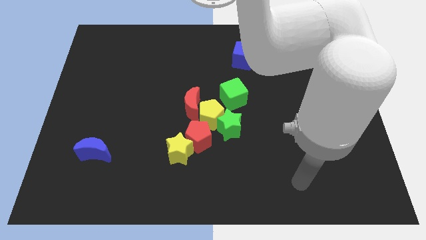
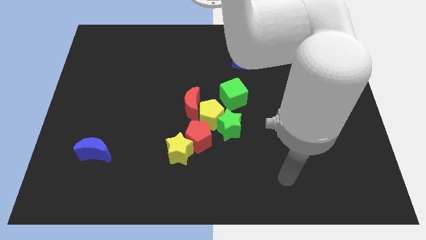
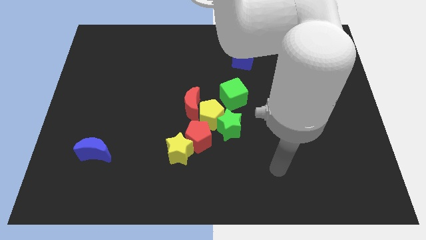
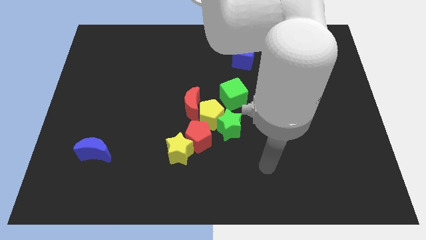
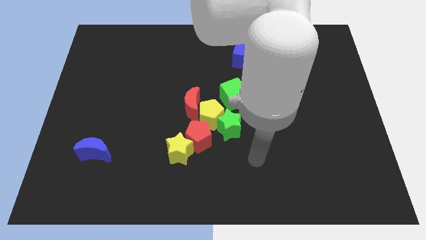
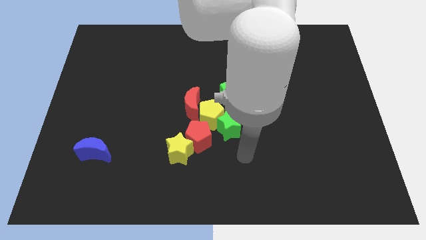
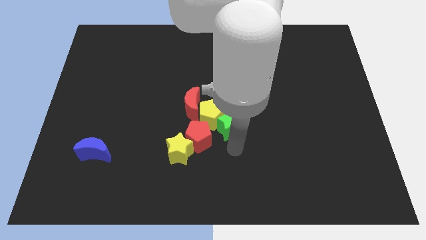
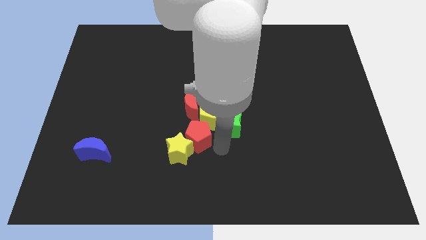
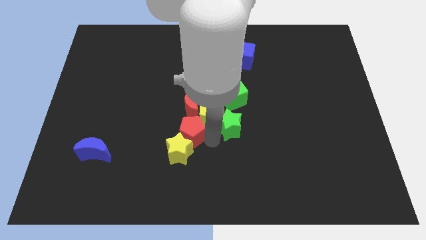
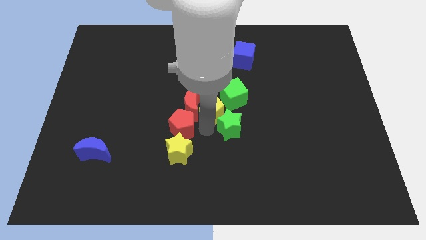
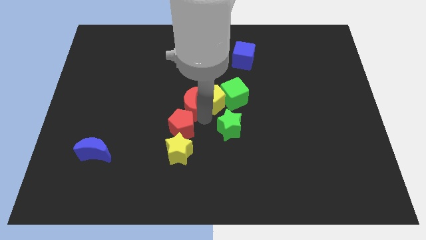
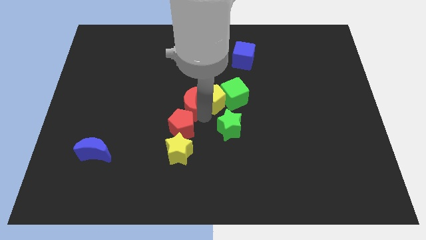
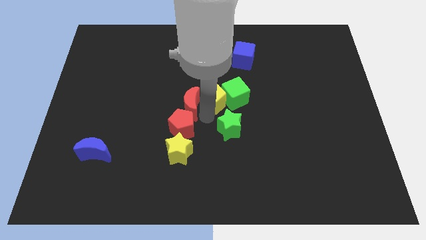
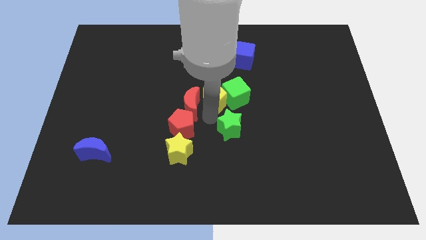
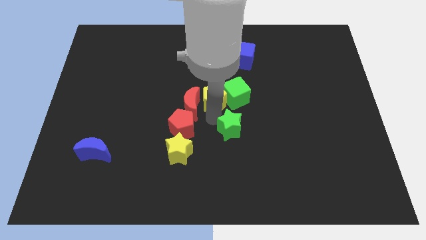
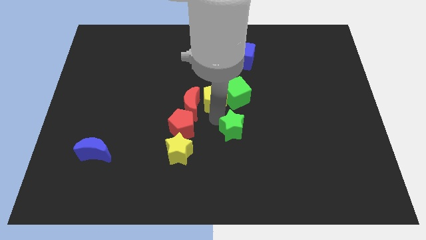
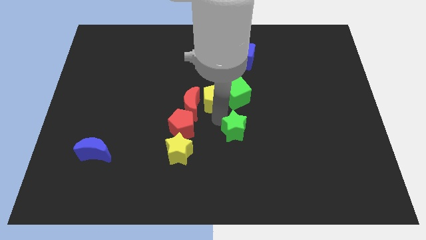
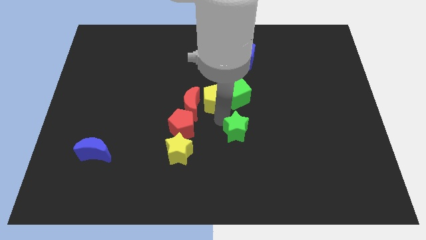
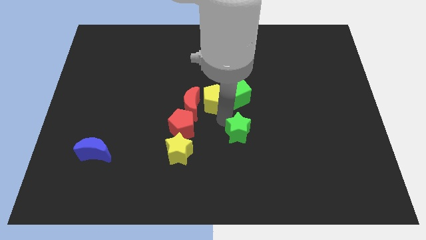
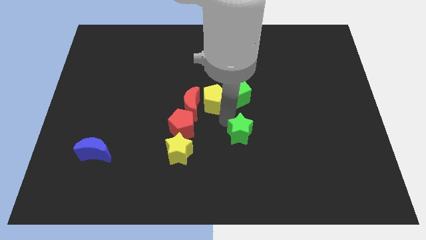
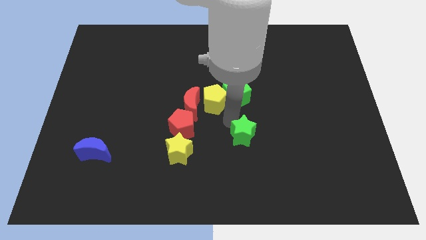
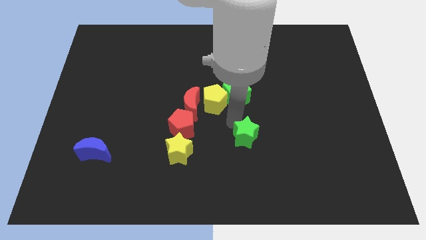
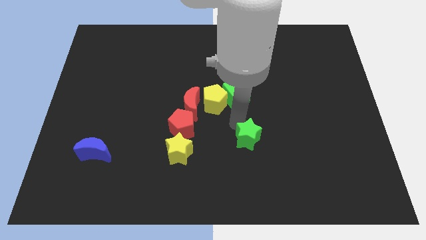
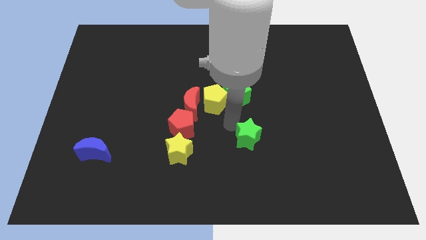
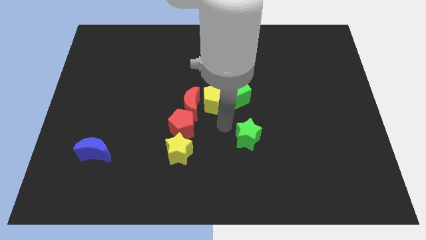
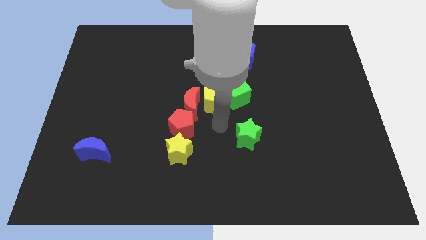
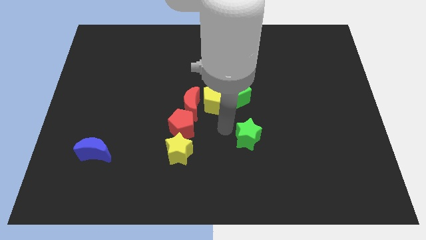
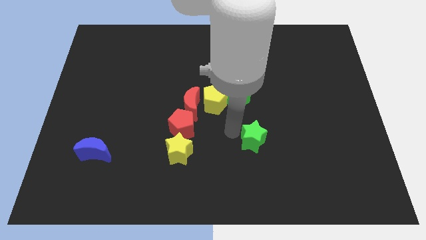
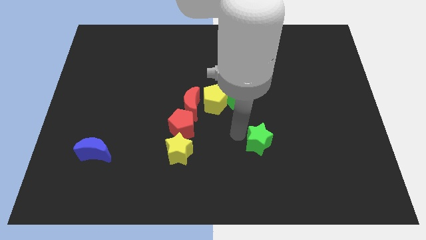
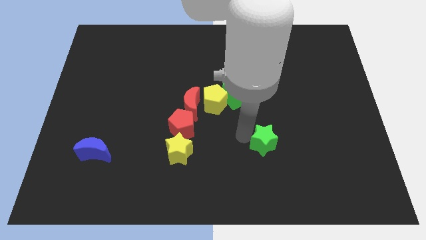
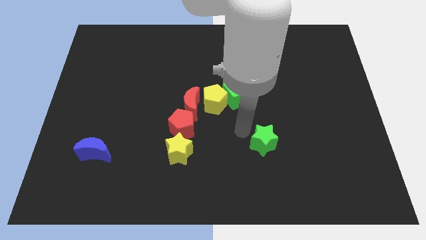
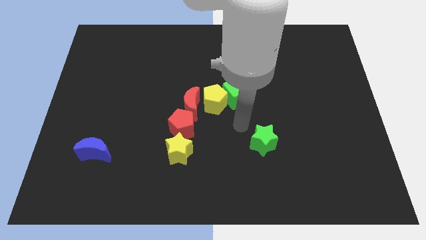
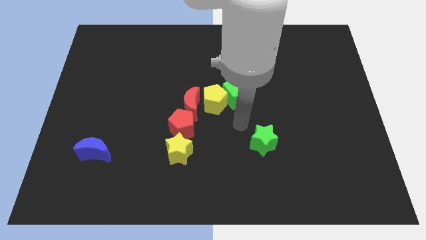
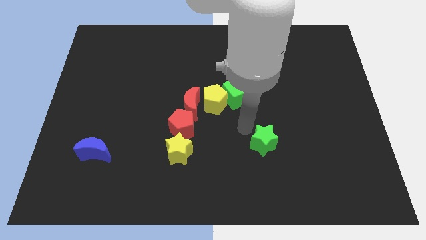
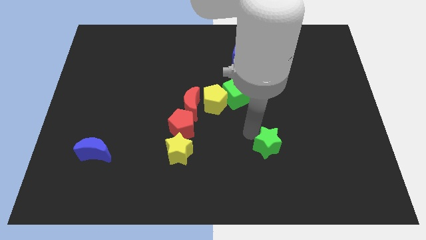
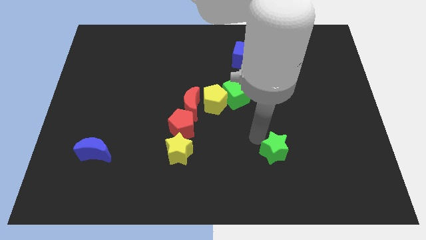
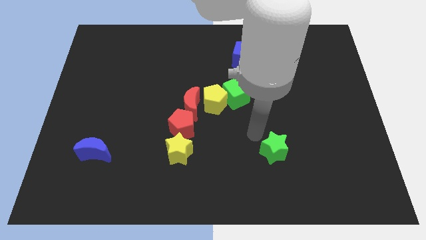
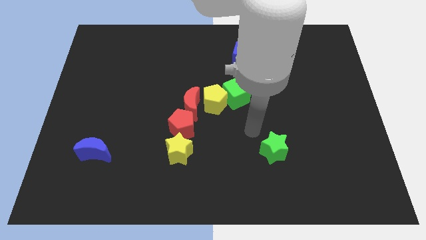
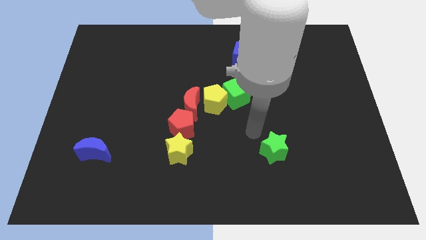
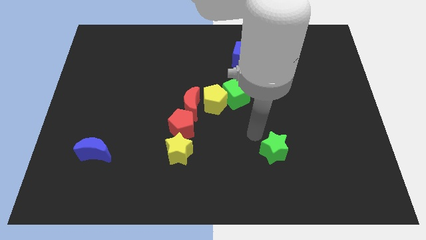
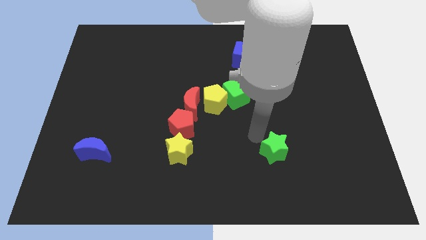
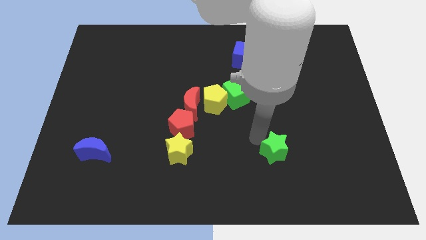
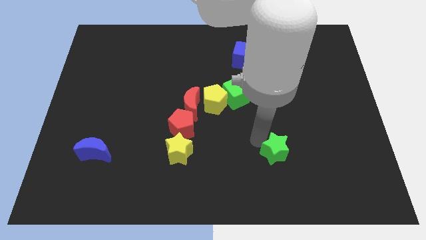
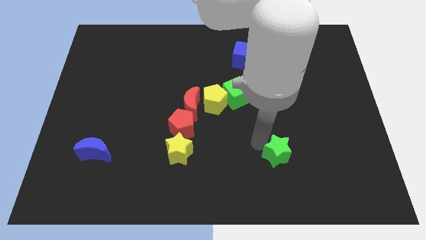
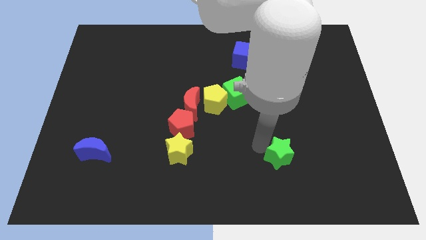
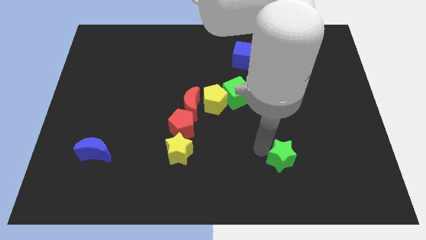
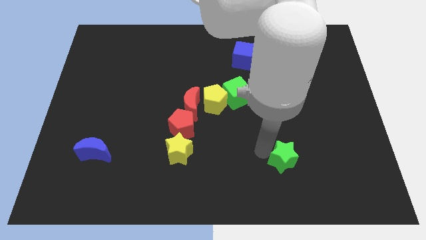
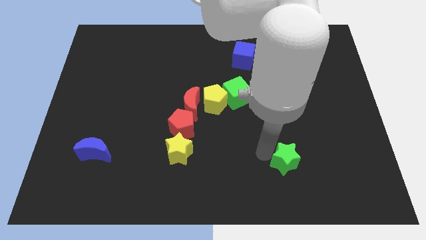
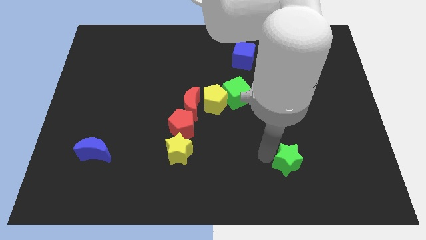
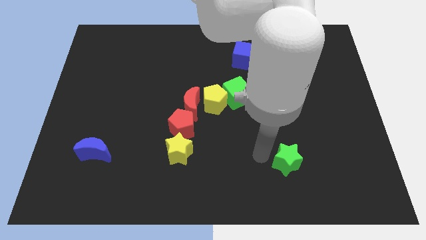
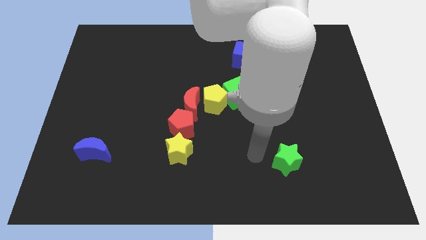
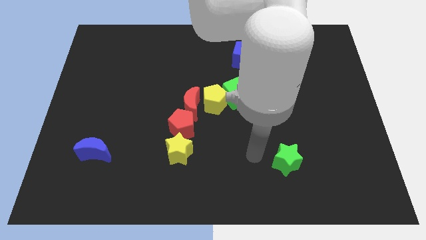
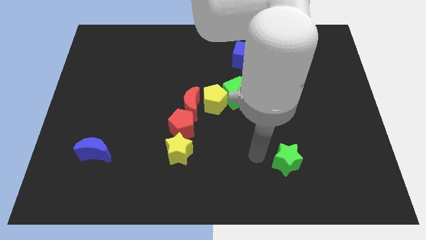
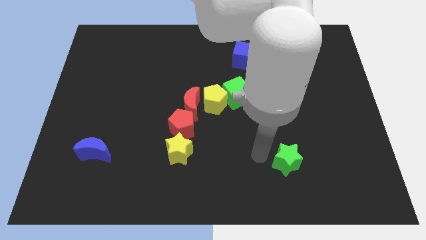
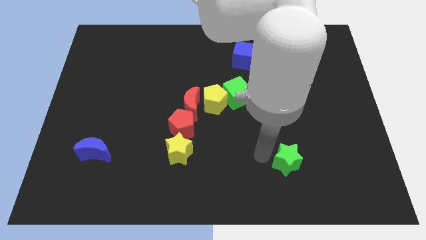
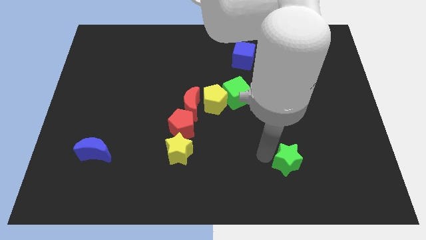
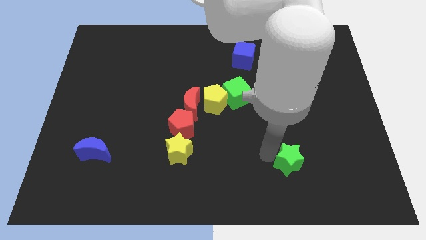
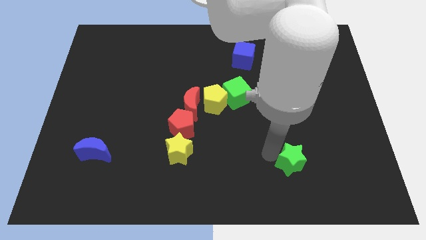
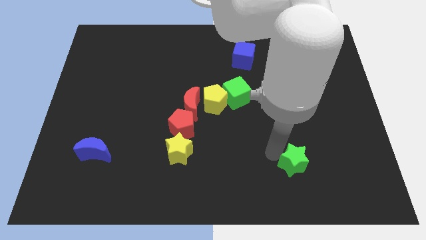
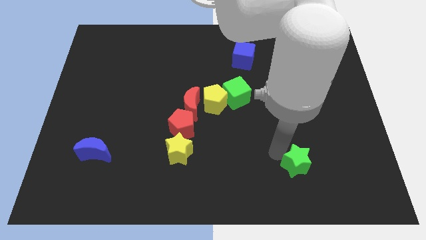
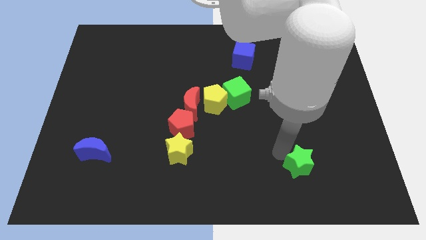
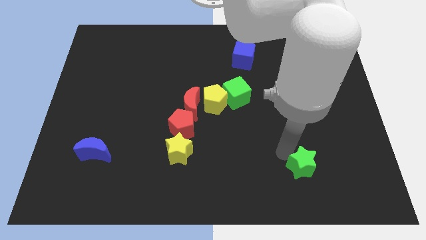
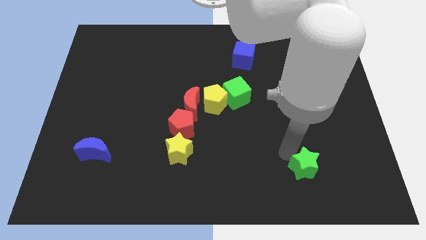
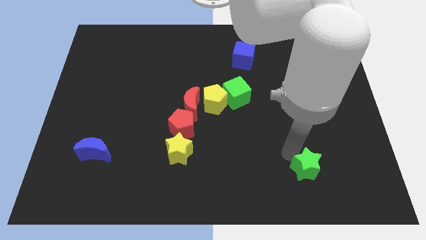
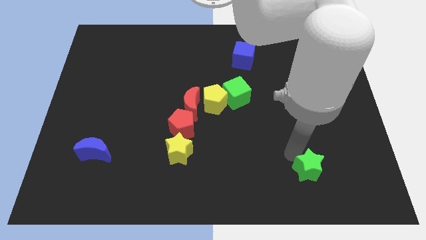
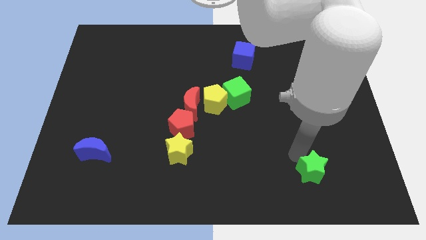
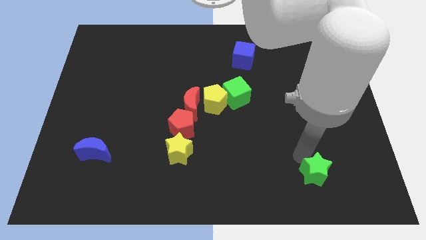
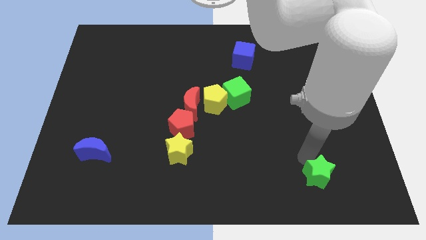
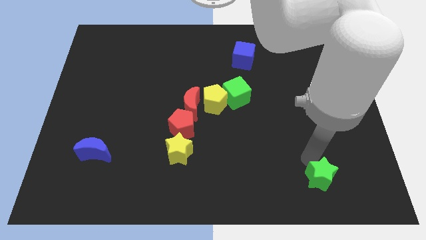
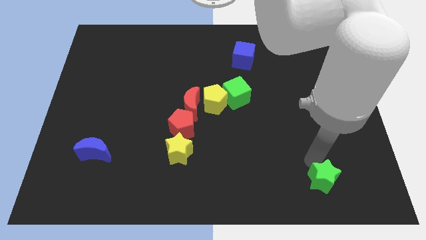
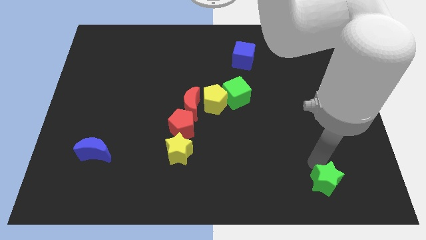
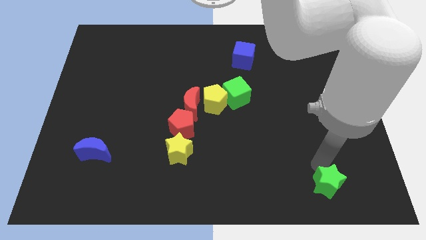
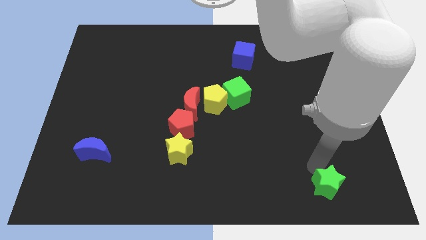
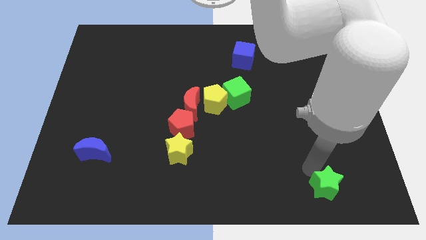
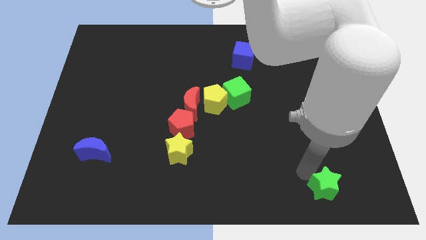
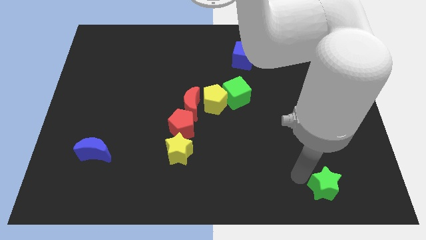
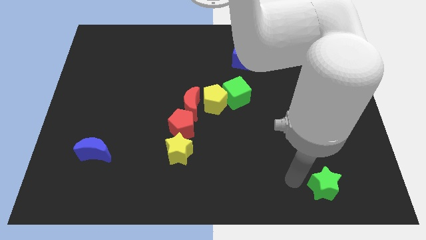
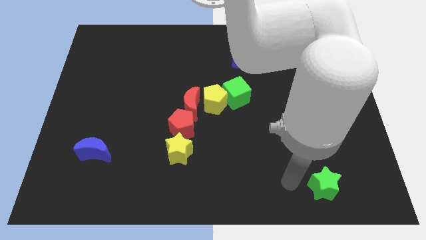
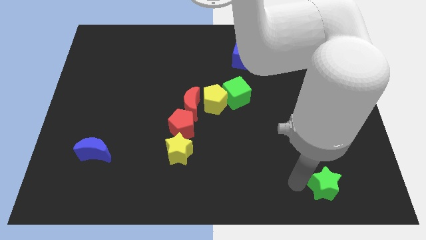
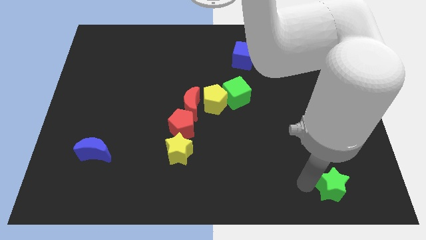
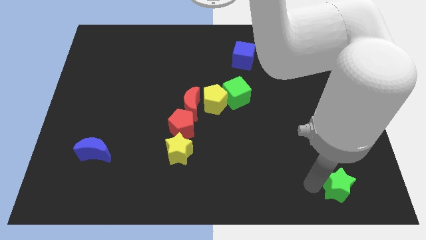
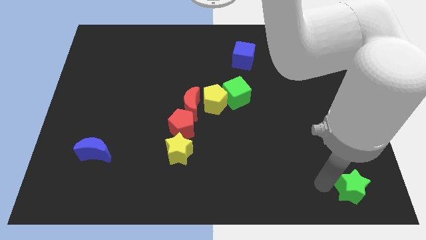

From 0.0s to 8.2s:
slide the green star to the bottom right corner
